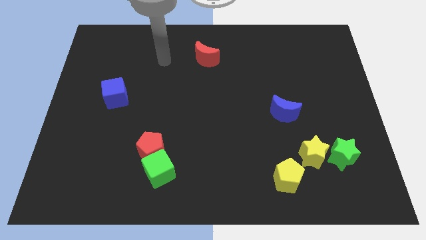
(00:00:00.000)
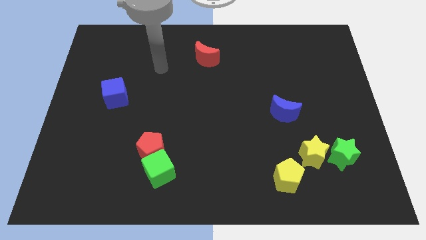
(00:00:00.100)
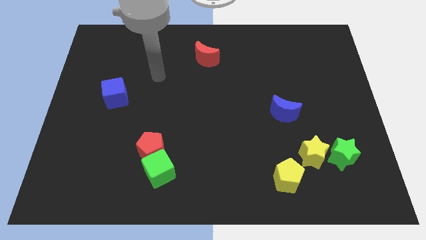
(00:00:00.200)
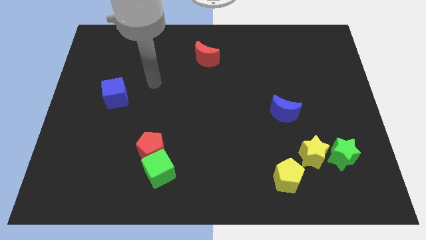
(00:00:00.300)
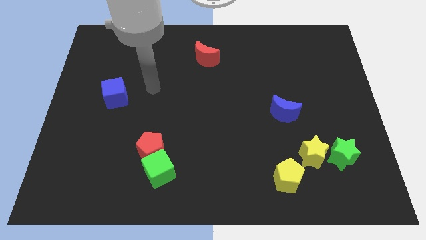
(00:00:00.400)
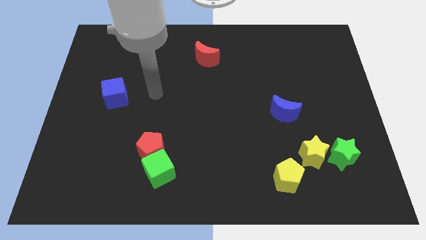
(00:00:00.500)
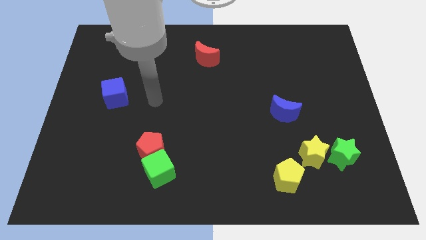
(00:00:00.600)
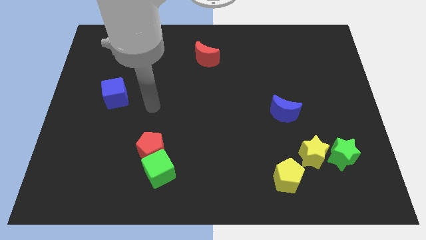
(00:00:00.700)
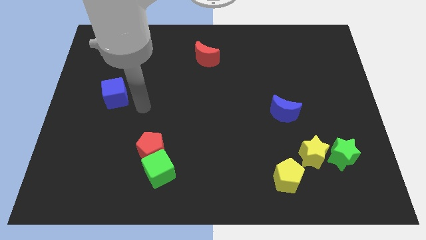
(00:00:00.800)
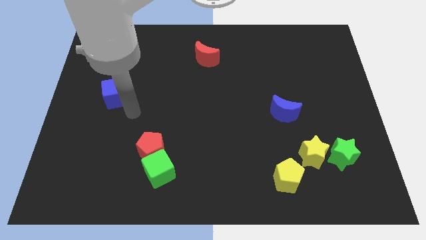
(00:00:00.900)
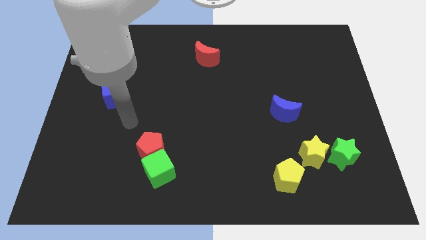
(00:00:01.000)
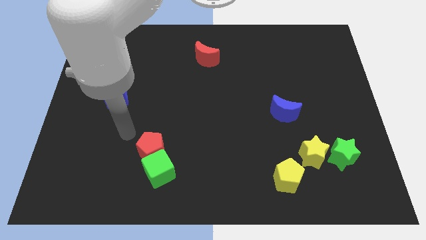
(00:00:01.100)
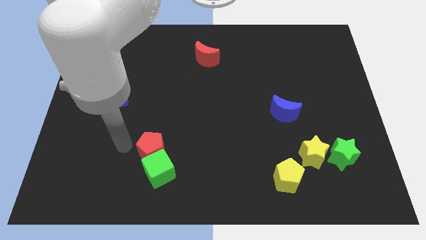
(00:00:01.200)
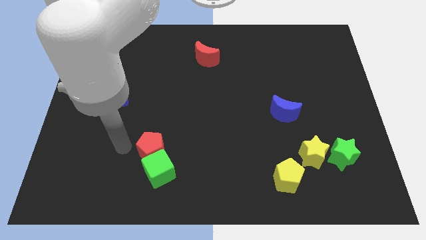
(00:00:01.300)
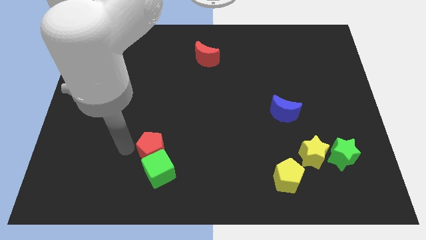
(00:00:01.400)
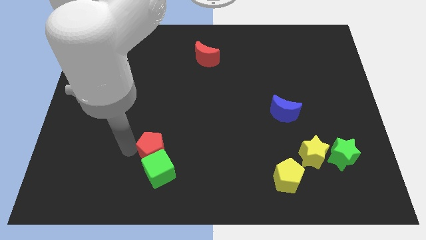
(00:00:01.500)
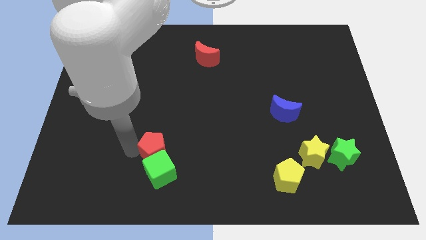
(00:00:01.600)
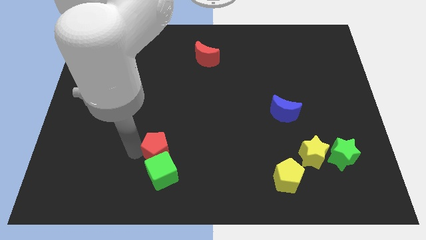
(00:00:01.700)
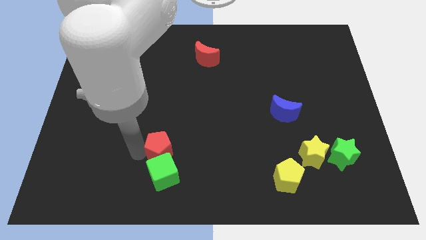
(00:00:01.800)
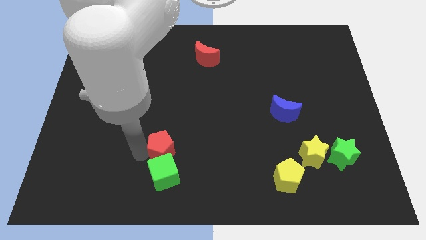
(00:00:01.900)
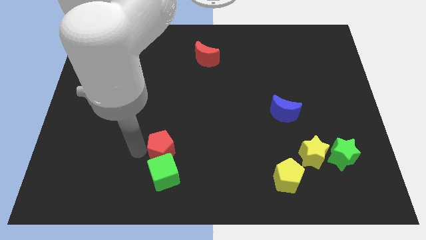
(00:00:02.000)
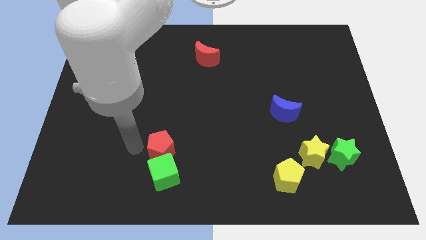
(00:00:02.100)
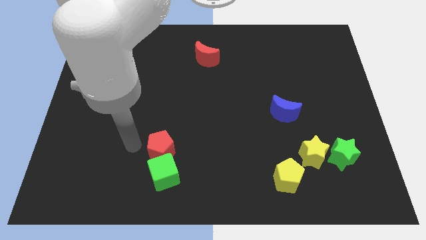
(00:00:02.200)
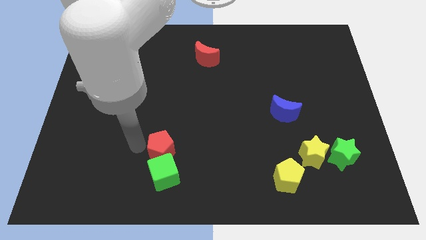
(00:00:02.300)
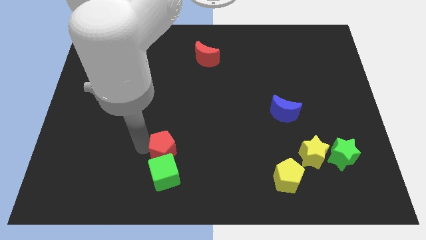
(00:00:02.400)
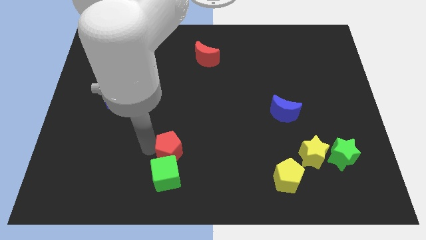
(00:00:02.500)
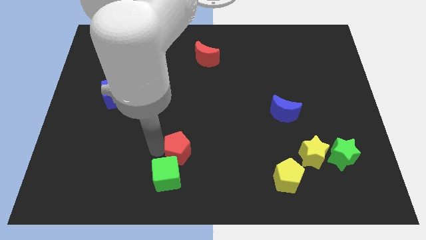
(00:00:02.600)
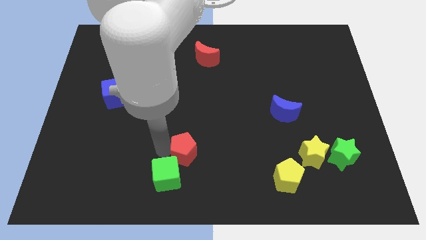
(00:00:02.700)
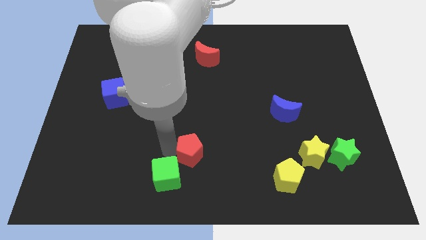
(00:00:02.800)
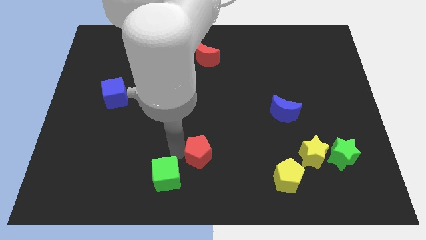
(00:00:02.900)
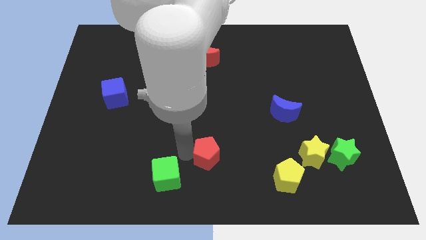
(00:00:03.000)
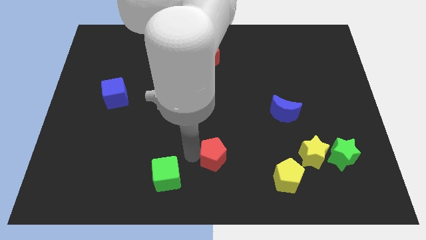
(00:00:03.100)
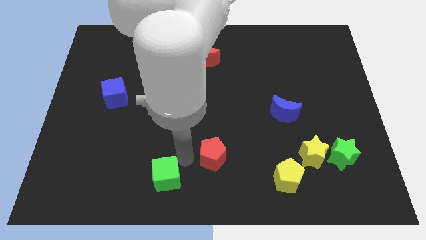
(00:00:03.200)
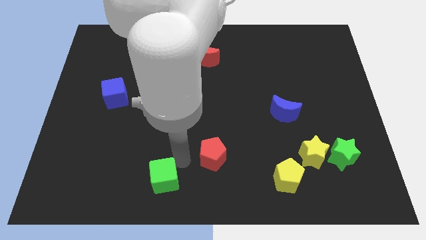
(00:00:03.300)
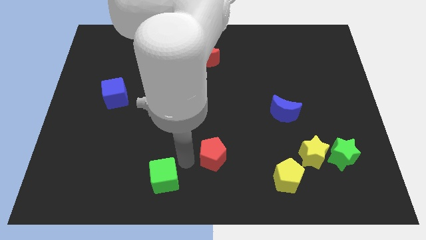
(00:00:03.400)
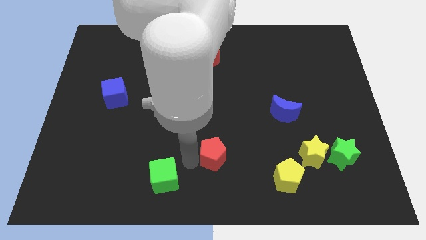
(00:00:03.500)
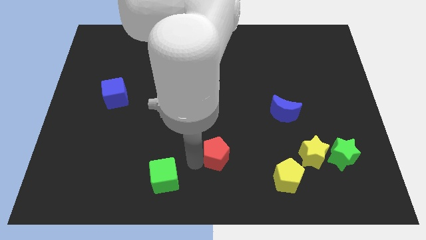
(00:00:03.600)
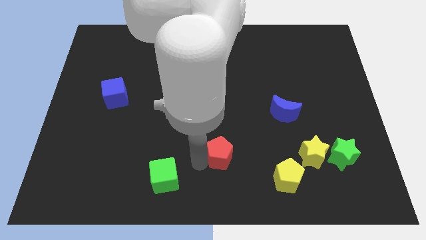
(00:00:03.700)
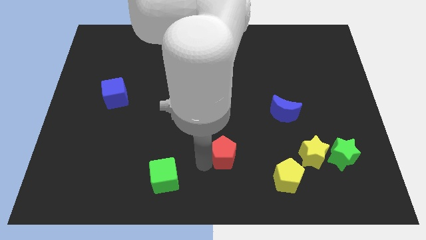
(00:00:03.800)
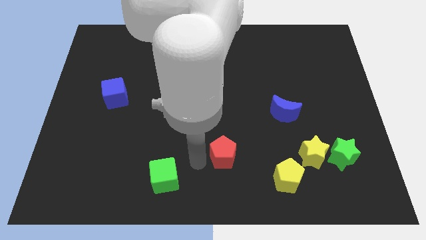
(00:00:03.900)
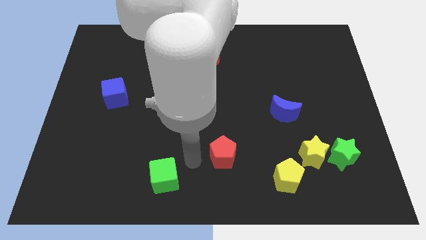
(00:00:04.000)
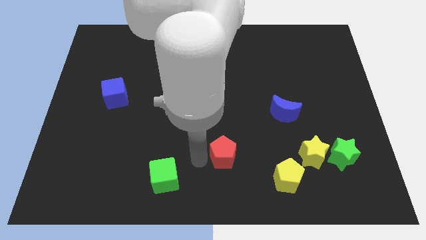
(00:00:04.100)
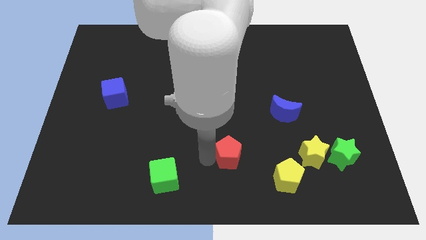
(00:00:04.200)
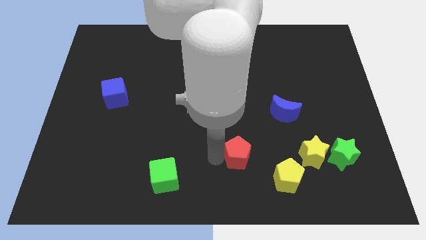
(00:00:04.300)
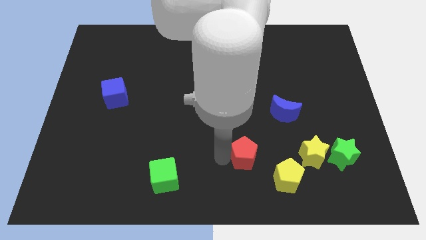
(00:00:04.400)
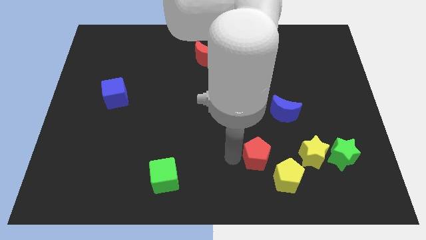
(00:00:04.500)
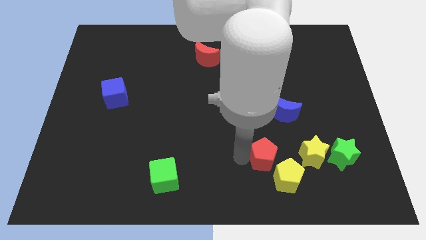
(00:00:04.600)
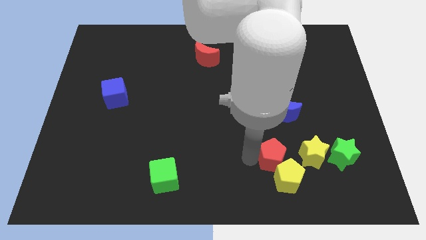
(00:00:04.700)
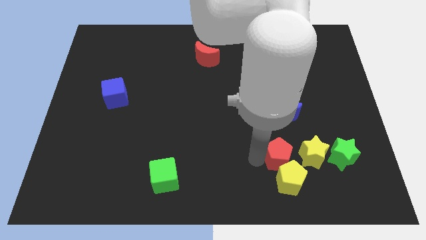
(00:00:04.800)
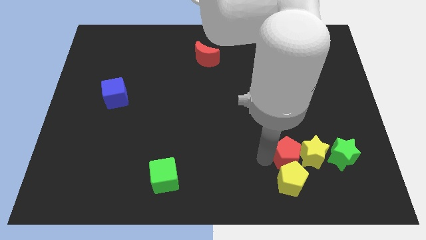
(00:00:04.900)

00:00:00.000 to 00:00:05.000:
move the red pentagon to the yellow star

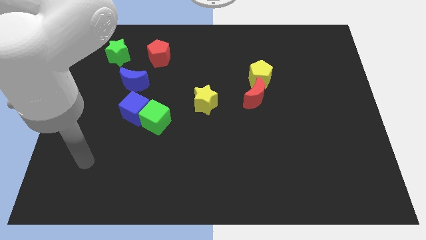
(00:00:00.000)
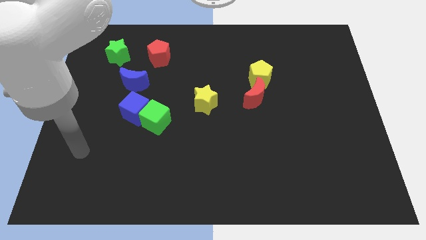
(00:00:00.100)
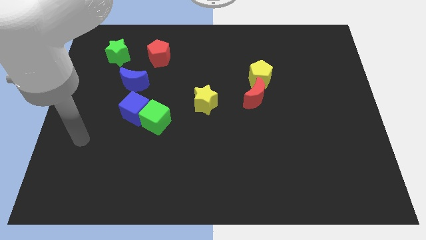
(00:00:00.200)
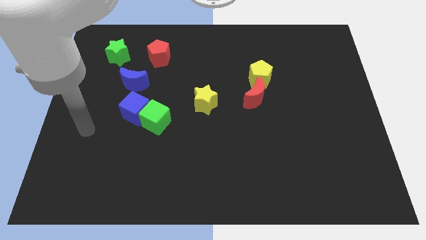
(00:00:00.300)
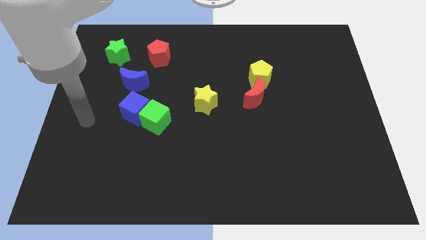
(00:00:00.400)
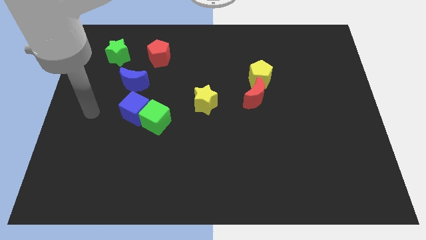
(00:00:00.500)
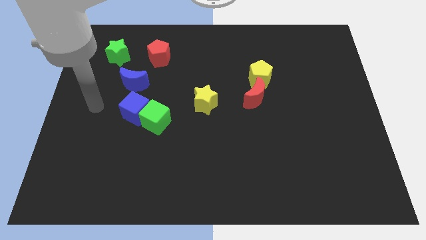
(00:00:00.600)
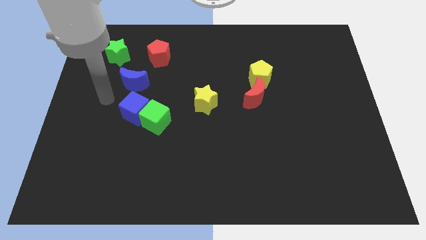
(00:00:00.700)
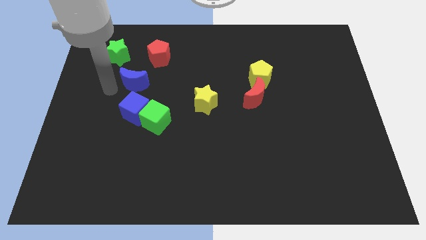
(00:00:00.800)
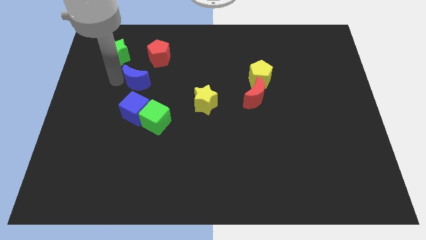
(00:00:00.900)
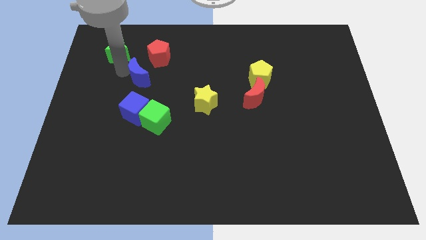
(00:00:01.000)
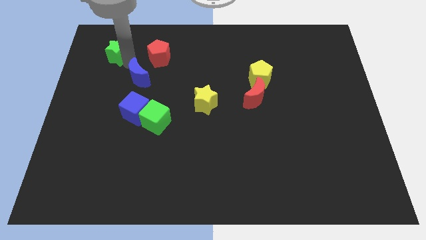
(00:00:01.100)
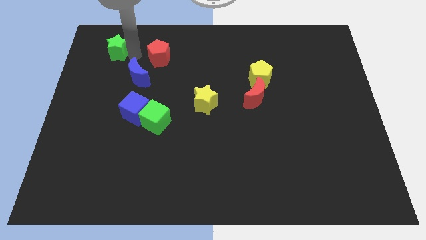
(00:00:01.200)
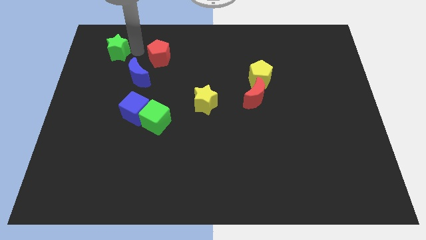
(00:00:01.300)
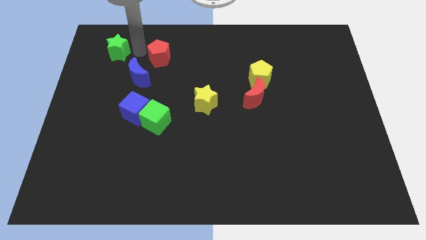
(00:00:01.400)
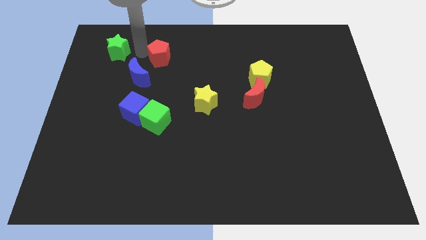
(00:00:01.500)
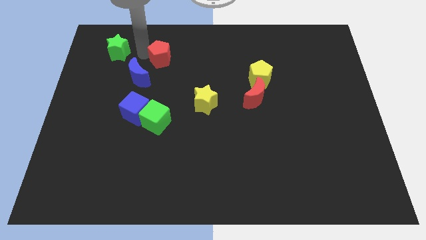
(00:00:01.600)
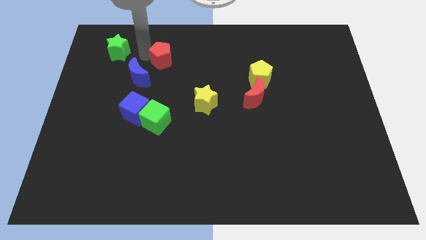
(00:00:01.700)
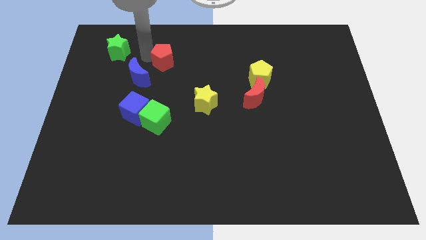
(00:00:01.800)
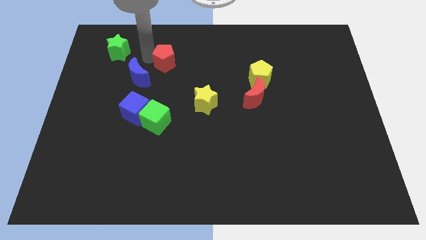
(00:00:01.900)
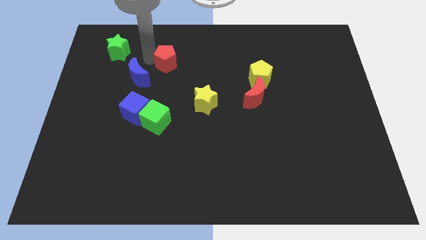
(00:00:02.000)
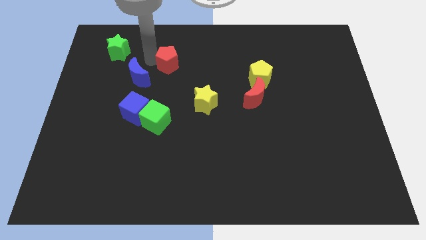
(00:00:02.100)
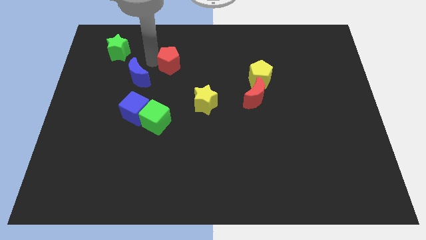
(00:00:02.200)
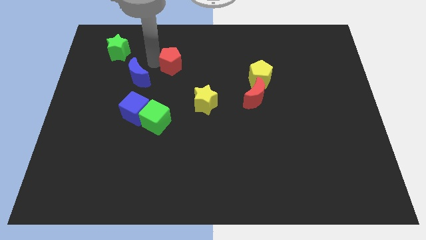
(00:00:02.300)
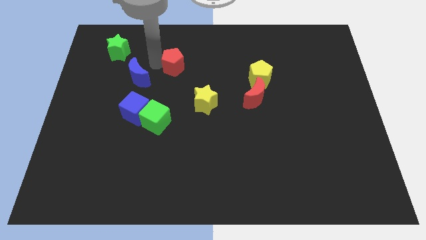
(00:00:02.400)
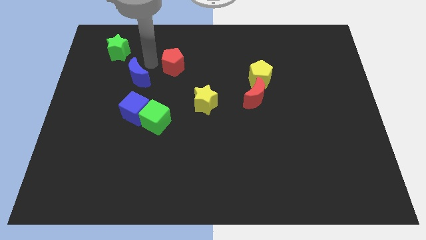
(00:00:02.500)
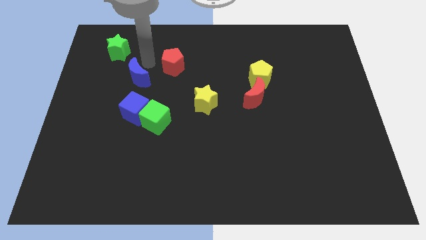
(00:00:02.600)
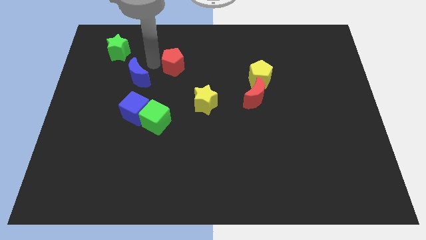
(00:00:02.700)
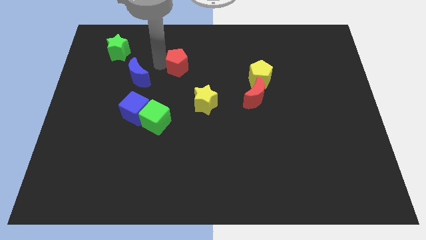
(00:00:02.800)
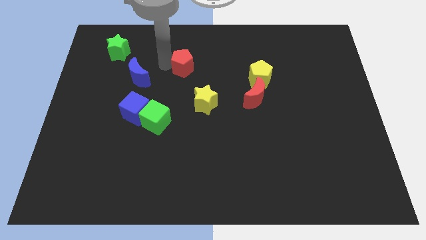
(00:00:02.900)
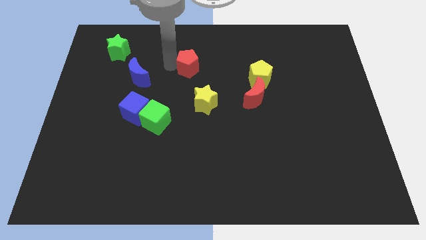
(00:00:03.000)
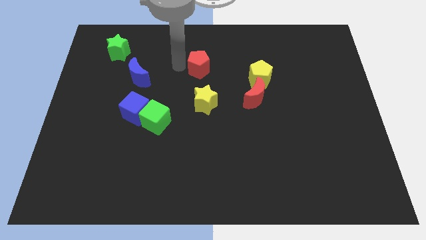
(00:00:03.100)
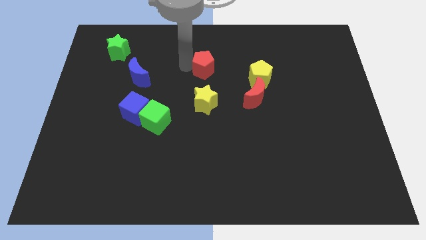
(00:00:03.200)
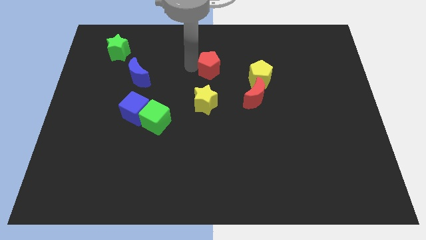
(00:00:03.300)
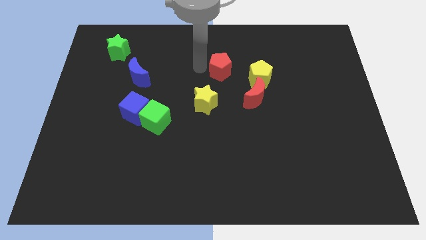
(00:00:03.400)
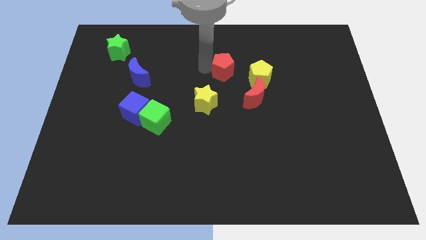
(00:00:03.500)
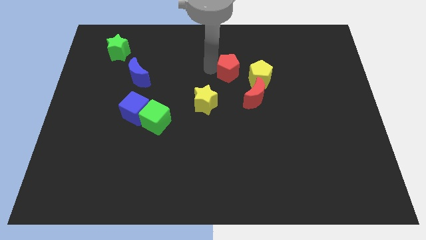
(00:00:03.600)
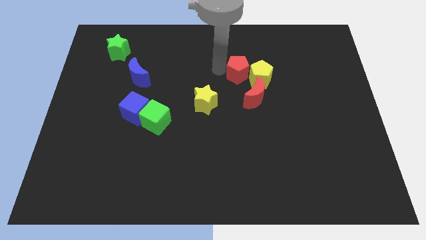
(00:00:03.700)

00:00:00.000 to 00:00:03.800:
slide the red pentagon towards the yellow pentagon
